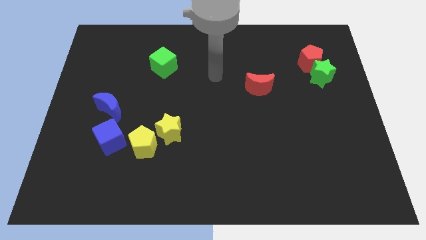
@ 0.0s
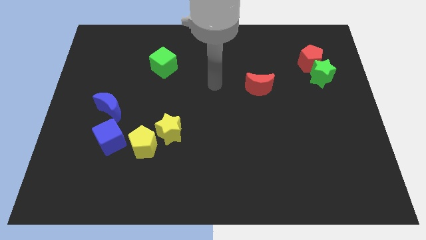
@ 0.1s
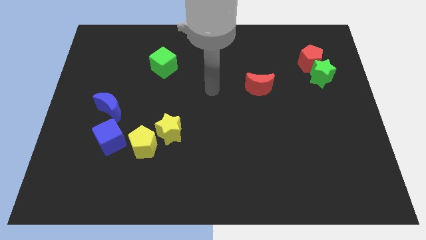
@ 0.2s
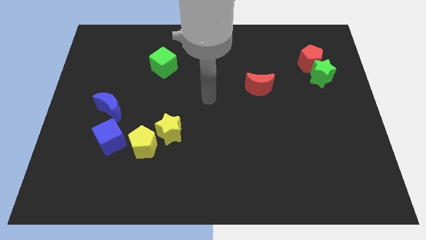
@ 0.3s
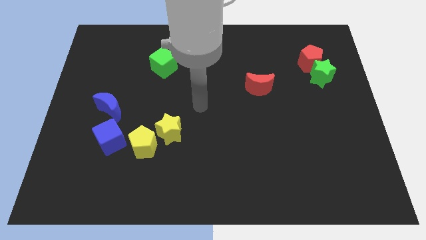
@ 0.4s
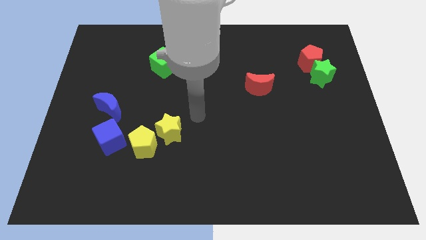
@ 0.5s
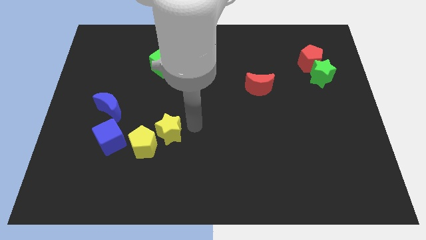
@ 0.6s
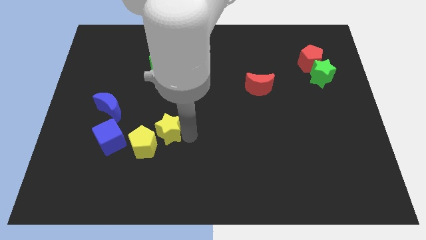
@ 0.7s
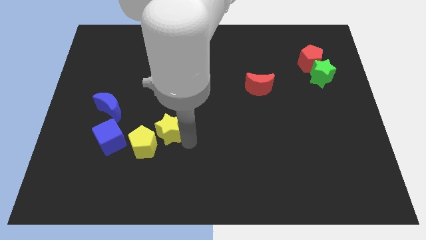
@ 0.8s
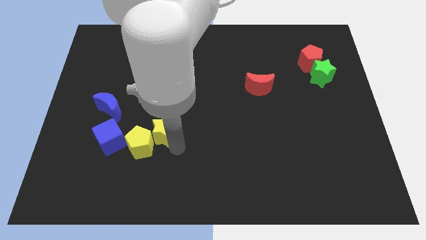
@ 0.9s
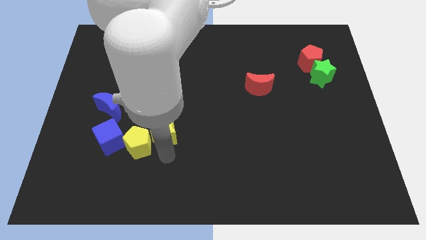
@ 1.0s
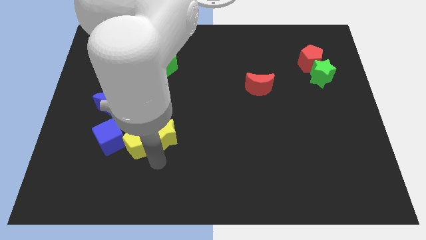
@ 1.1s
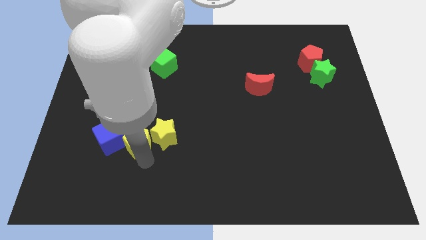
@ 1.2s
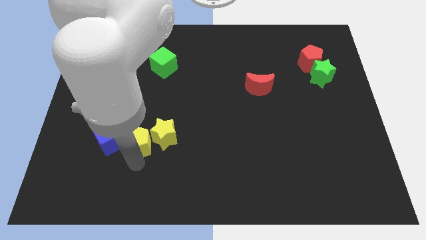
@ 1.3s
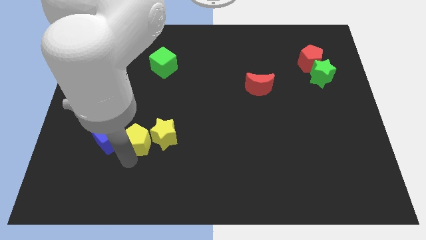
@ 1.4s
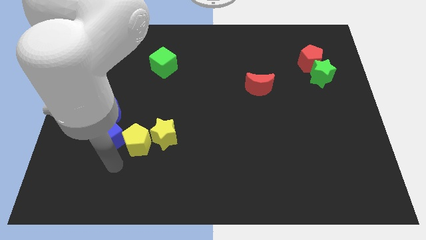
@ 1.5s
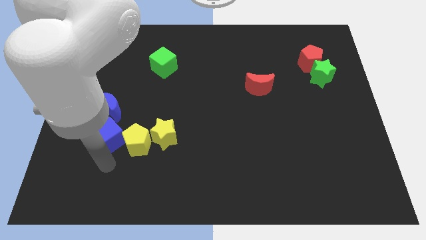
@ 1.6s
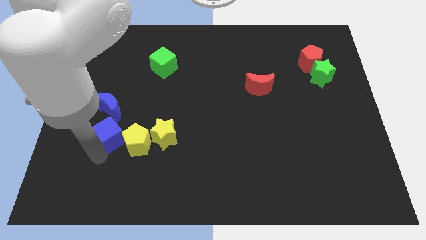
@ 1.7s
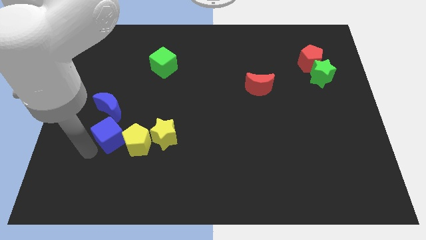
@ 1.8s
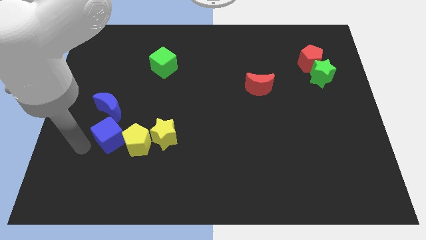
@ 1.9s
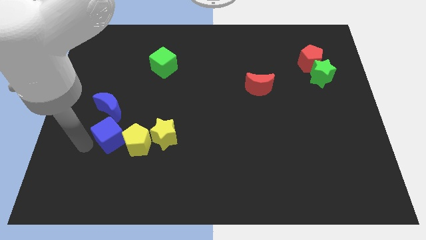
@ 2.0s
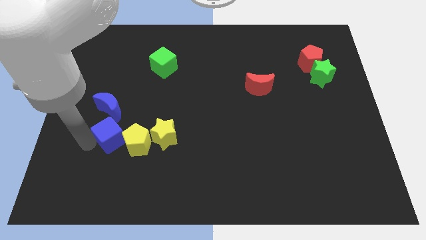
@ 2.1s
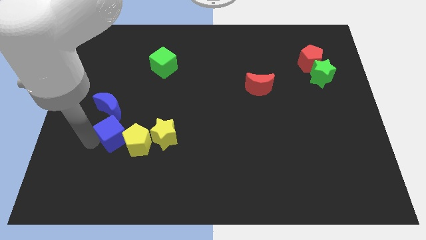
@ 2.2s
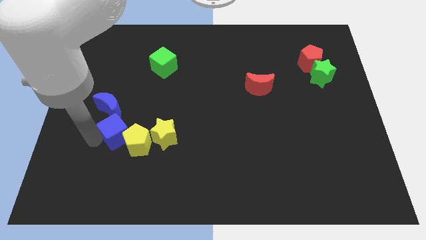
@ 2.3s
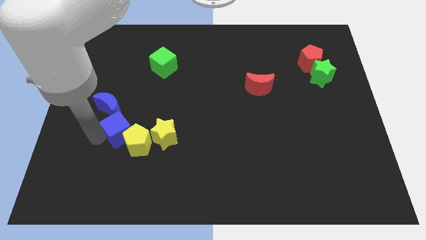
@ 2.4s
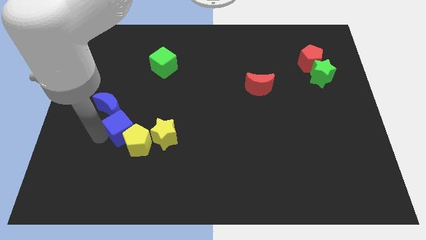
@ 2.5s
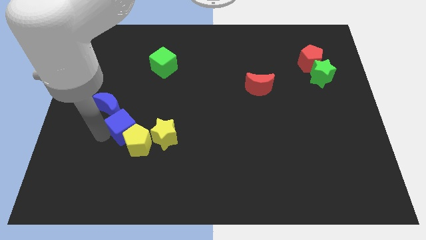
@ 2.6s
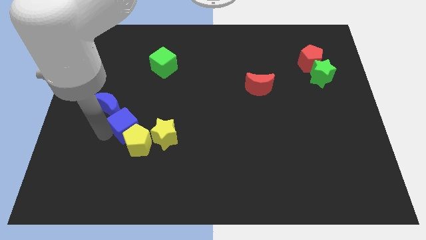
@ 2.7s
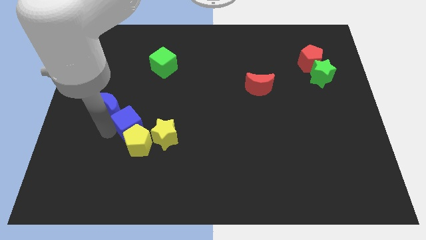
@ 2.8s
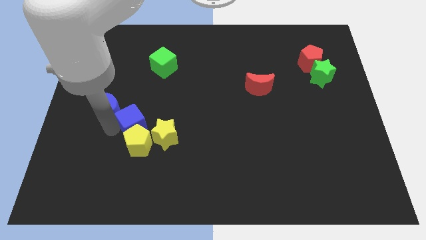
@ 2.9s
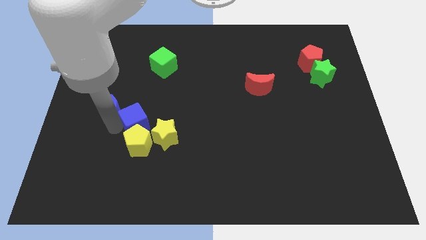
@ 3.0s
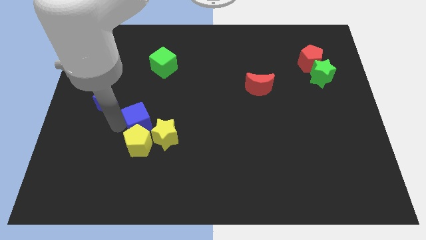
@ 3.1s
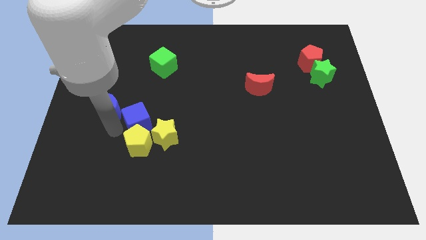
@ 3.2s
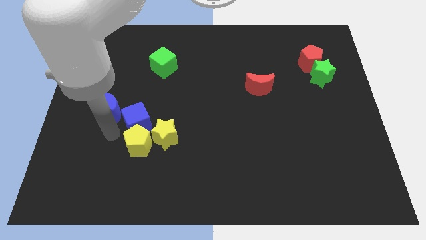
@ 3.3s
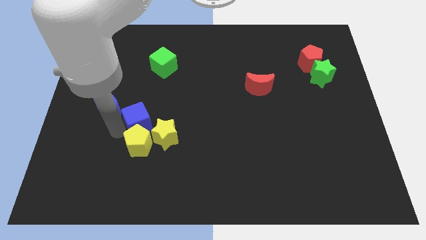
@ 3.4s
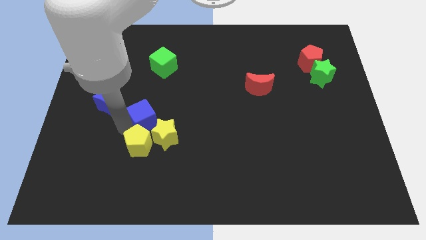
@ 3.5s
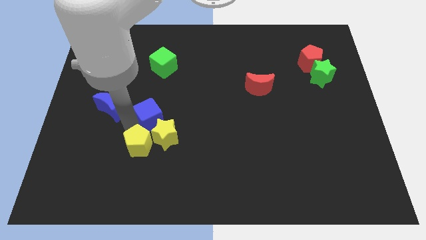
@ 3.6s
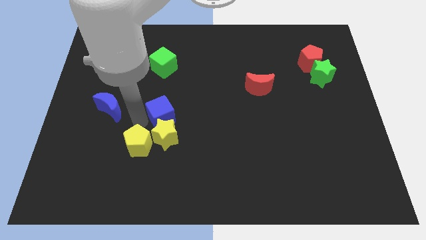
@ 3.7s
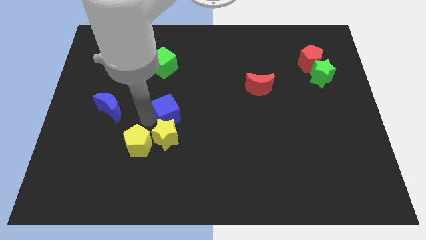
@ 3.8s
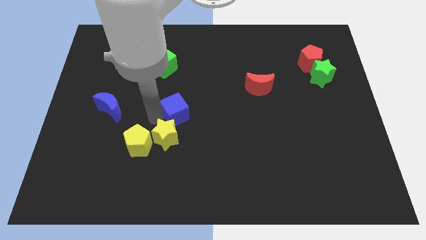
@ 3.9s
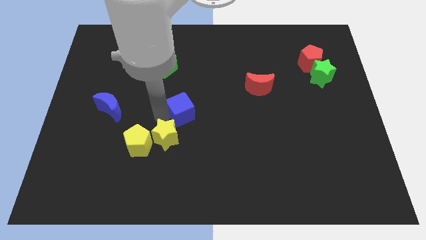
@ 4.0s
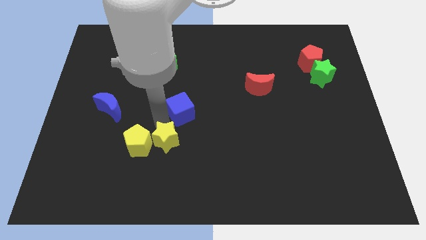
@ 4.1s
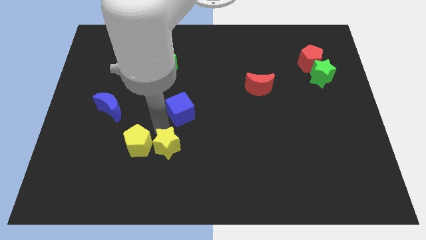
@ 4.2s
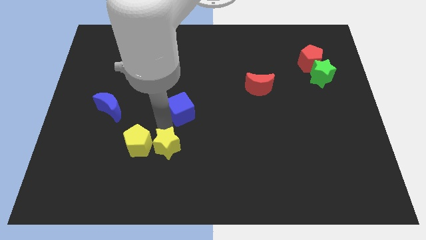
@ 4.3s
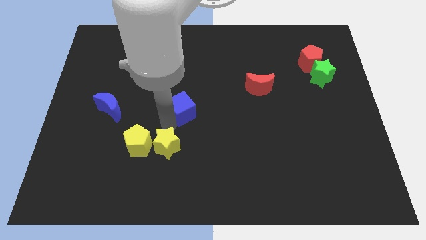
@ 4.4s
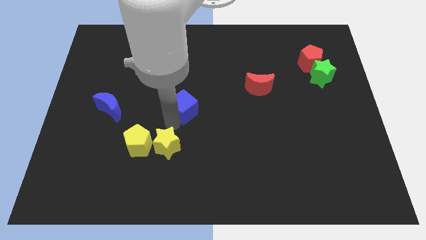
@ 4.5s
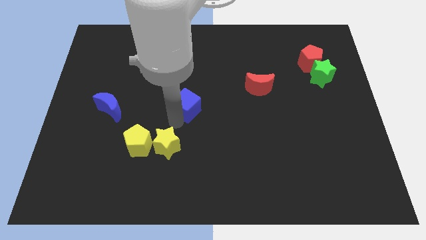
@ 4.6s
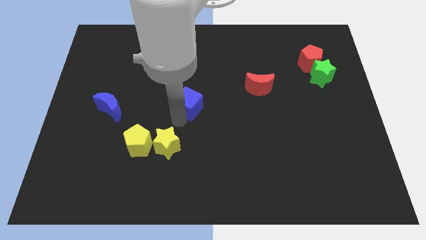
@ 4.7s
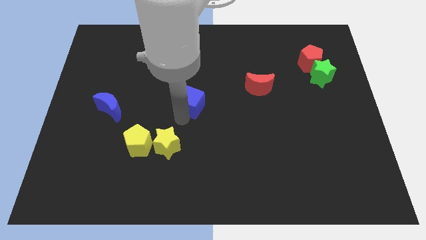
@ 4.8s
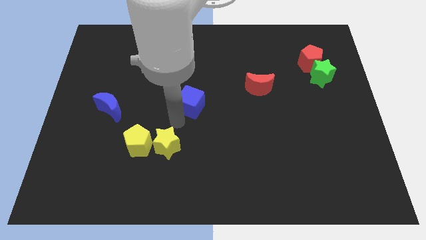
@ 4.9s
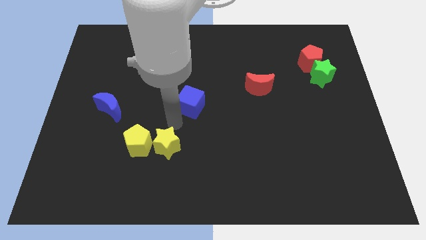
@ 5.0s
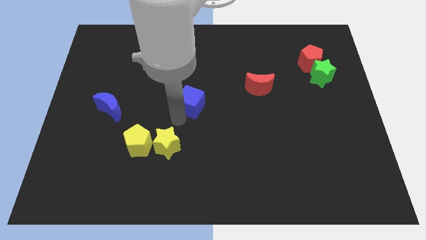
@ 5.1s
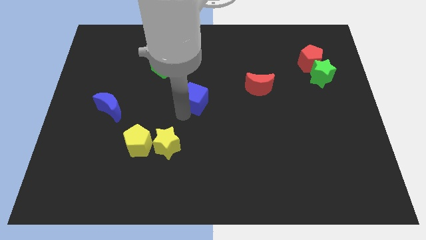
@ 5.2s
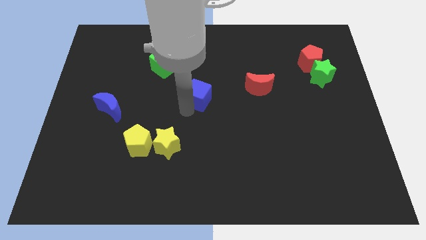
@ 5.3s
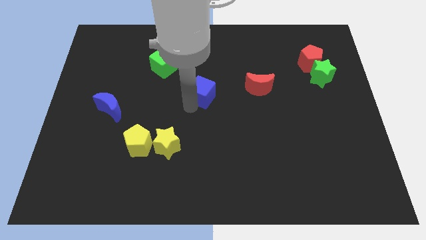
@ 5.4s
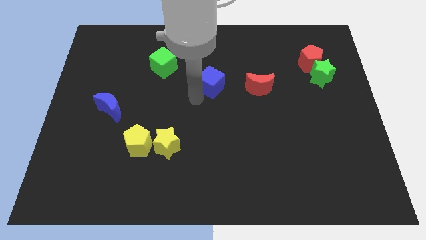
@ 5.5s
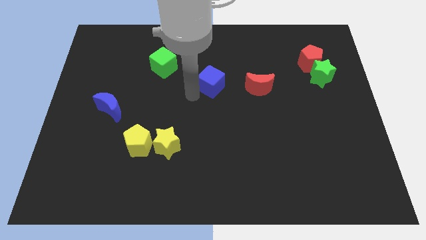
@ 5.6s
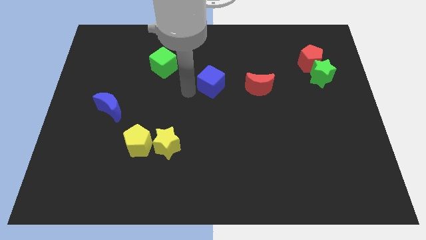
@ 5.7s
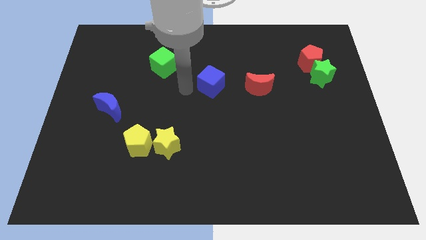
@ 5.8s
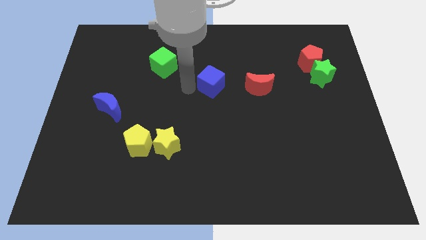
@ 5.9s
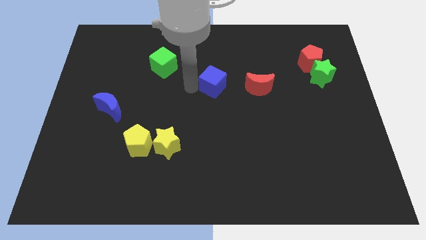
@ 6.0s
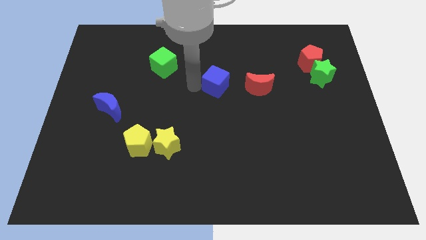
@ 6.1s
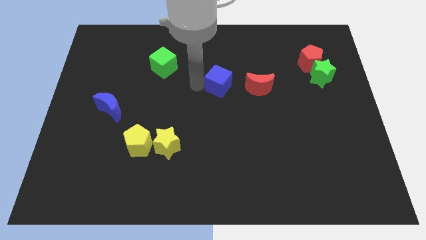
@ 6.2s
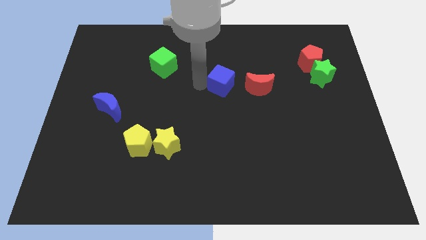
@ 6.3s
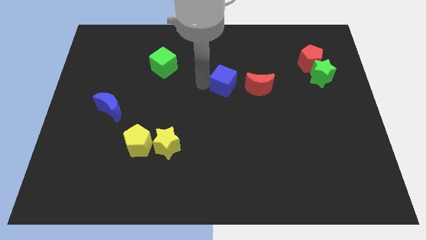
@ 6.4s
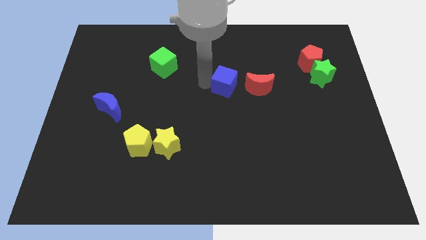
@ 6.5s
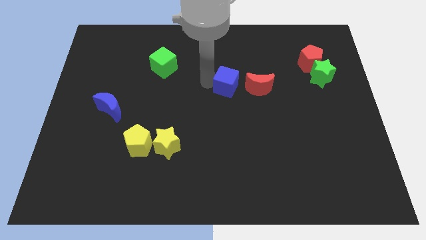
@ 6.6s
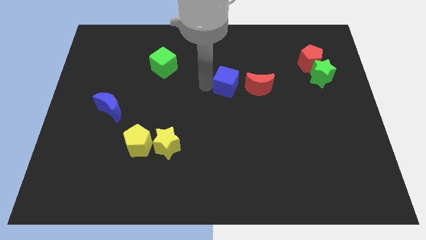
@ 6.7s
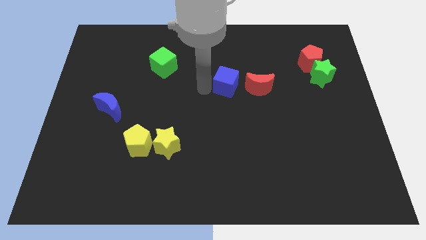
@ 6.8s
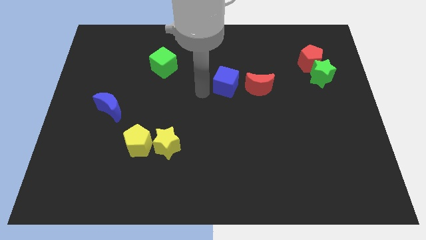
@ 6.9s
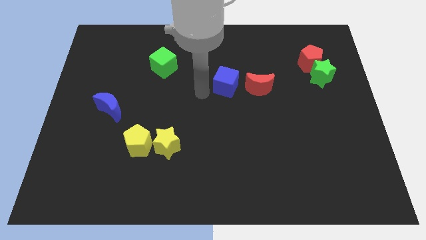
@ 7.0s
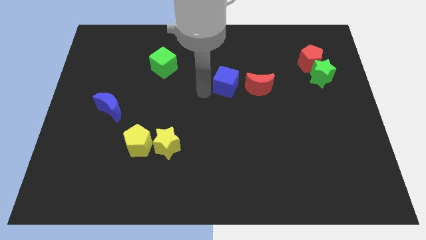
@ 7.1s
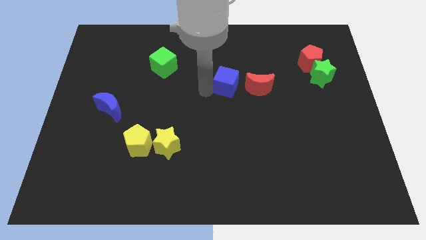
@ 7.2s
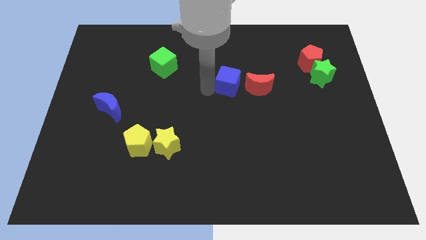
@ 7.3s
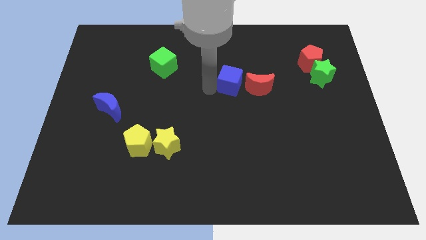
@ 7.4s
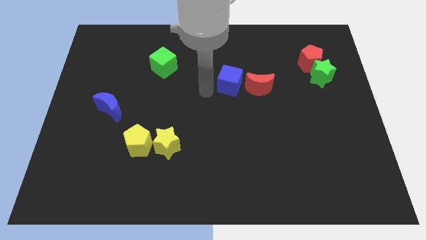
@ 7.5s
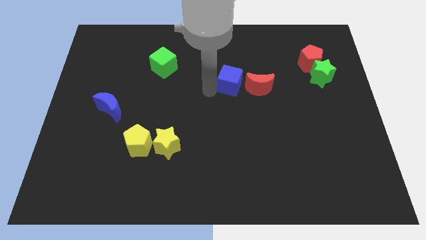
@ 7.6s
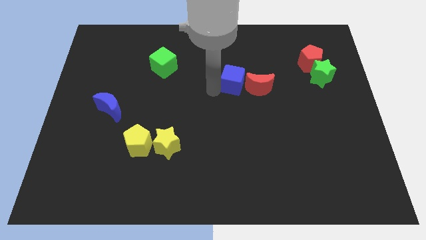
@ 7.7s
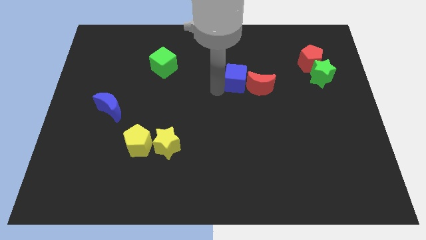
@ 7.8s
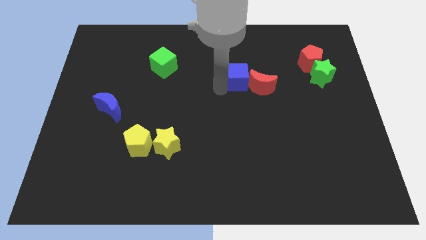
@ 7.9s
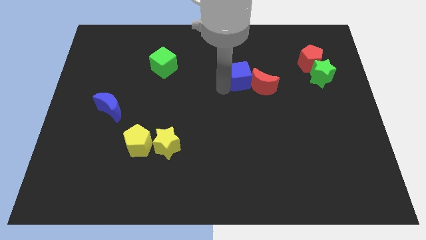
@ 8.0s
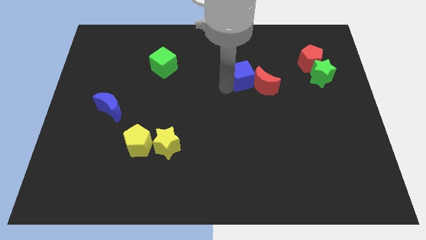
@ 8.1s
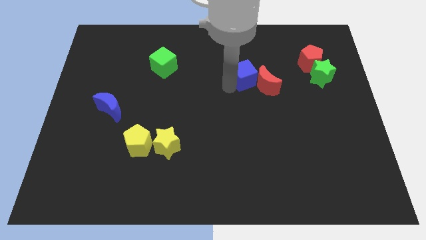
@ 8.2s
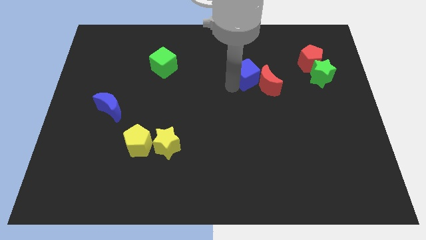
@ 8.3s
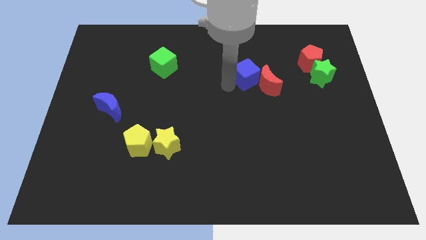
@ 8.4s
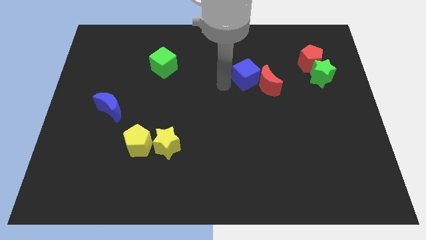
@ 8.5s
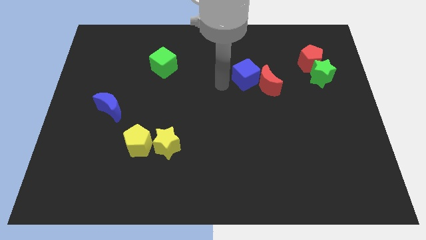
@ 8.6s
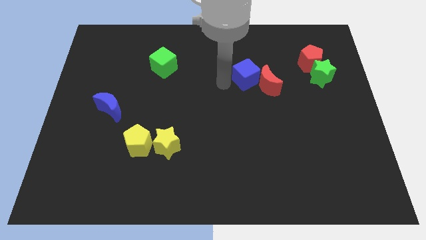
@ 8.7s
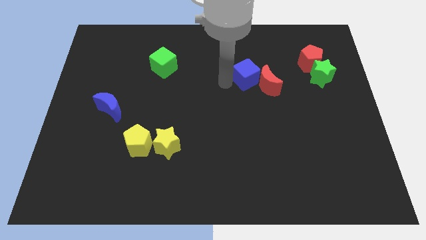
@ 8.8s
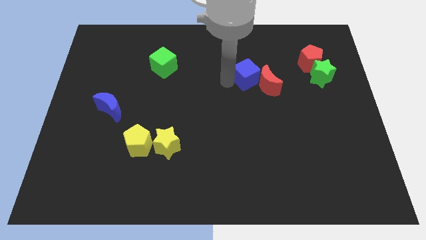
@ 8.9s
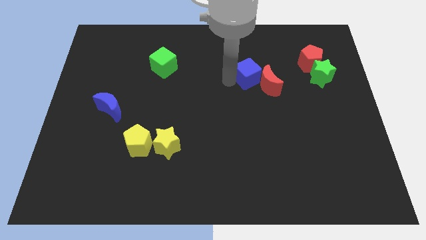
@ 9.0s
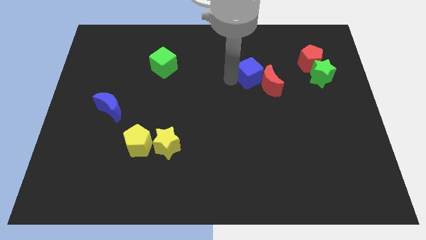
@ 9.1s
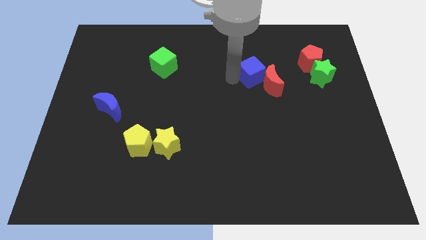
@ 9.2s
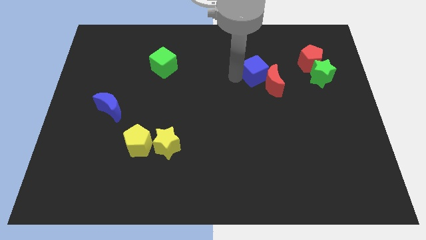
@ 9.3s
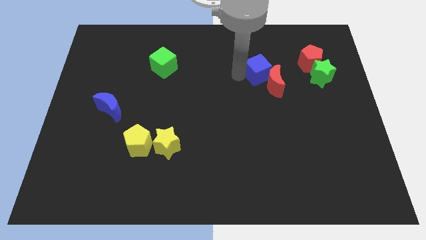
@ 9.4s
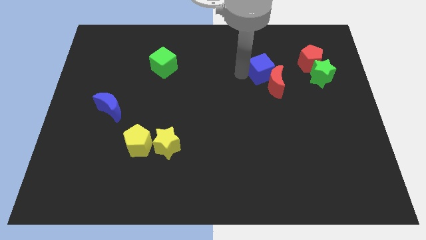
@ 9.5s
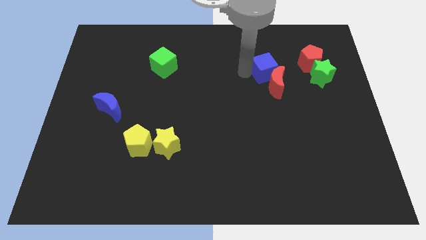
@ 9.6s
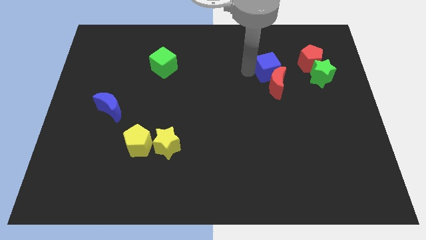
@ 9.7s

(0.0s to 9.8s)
put the blue cube to the top right of the red moon
